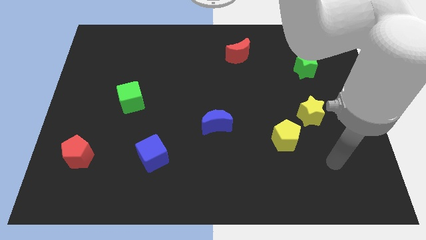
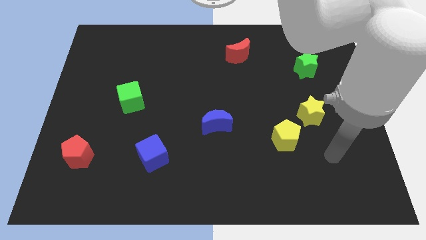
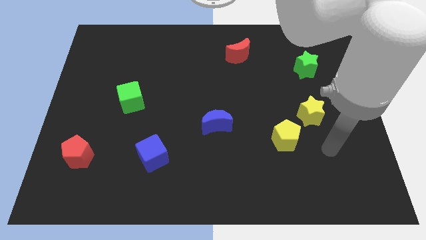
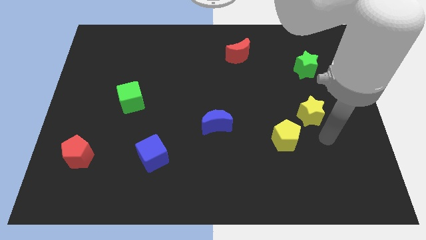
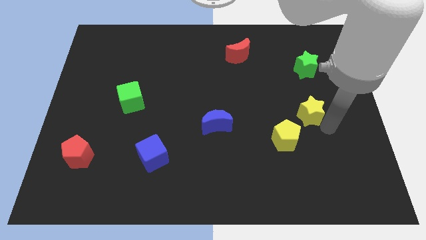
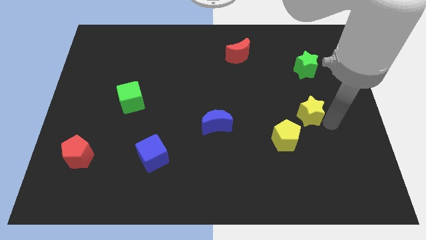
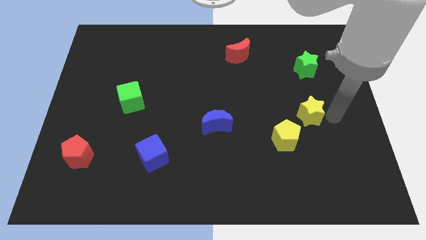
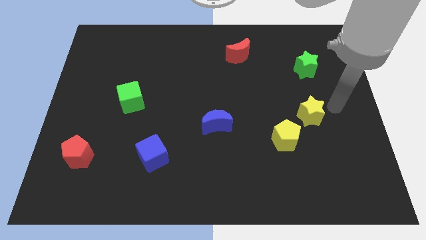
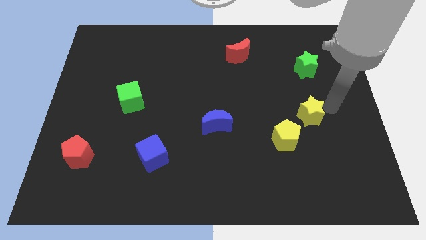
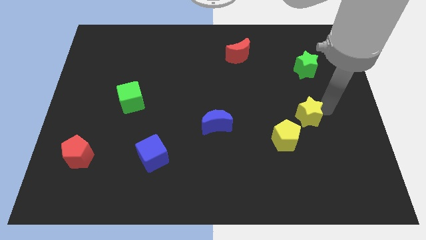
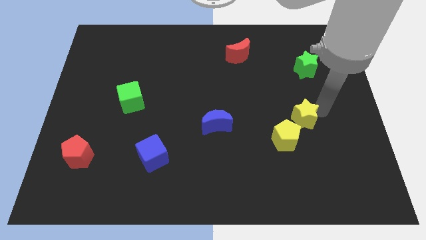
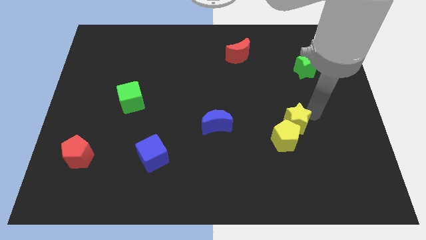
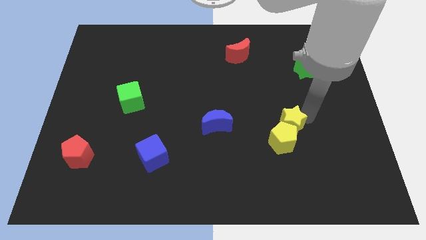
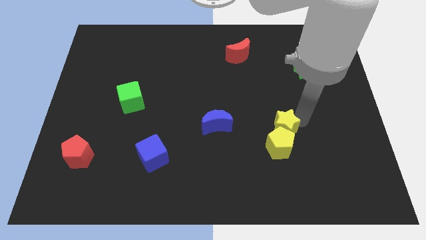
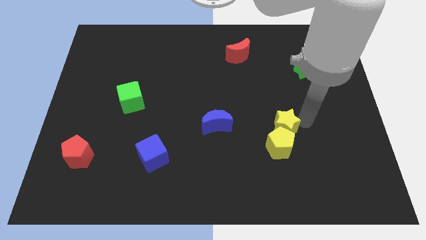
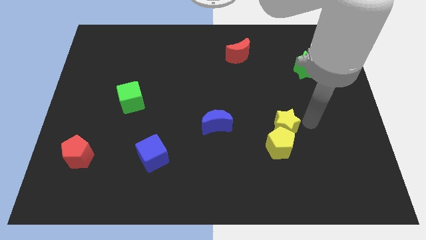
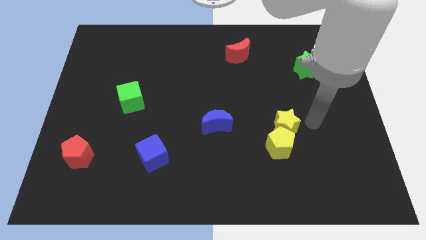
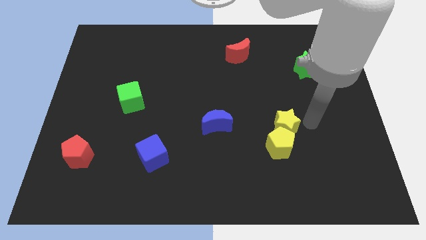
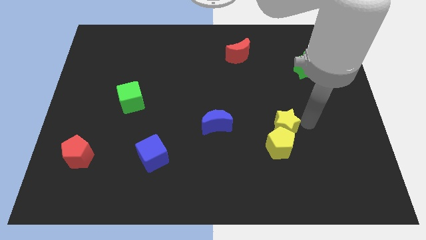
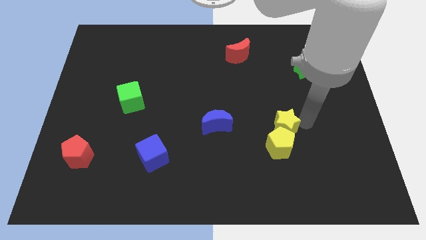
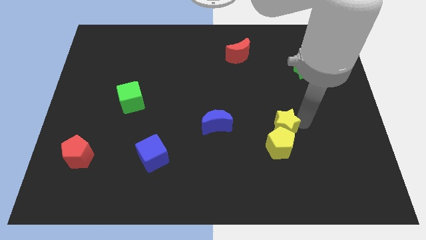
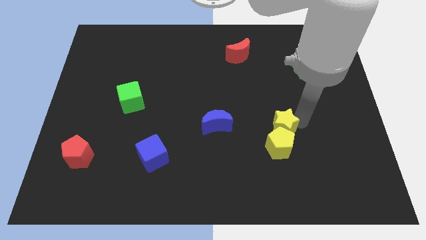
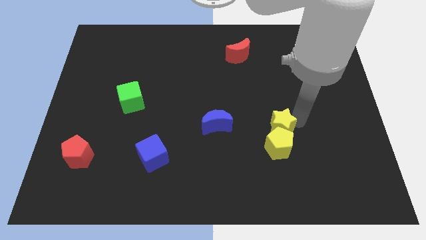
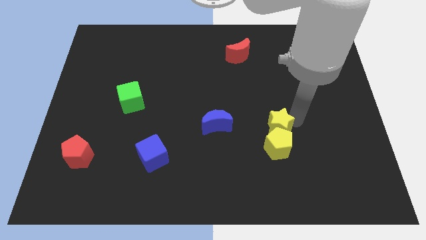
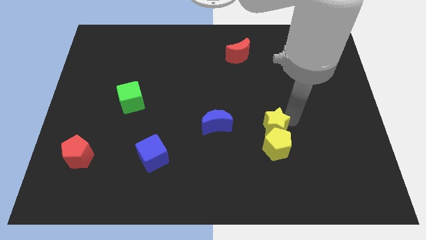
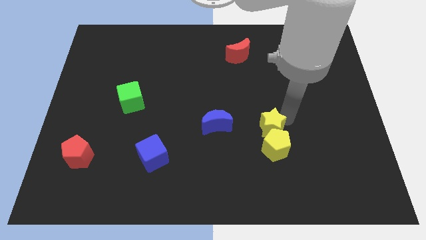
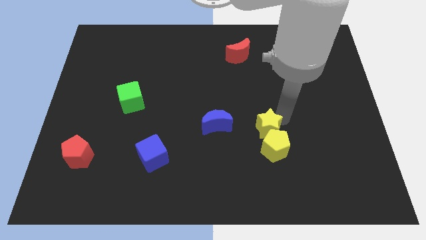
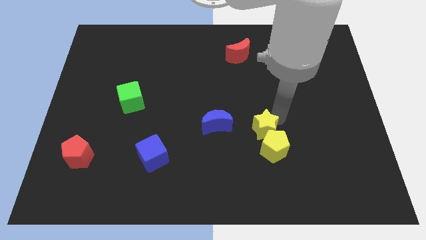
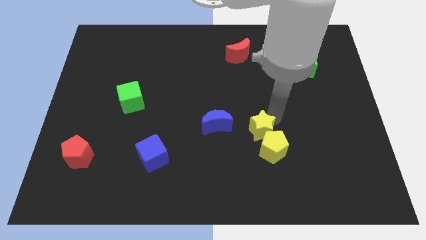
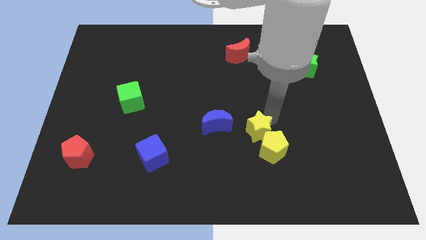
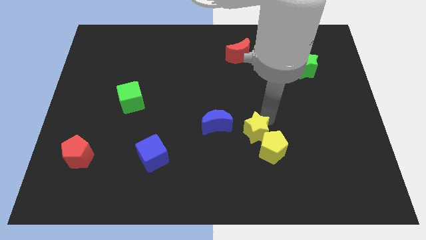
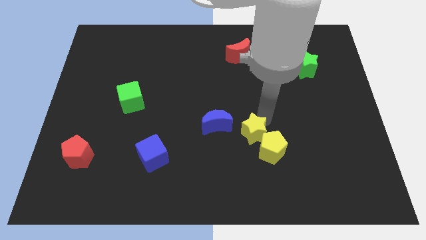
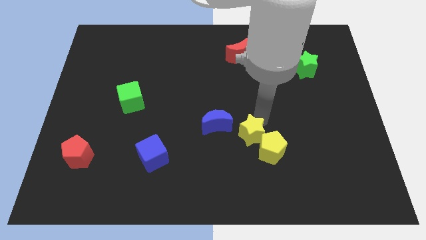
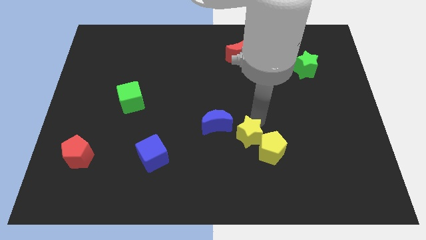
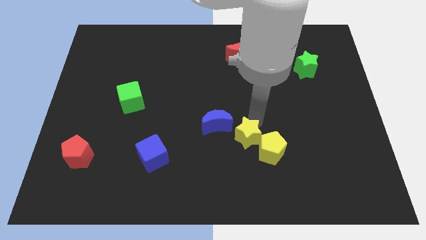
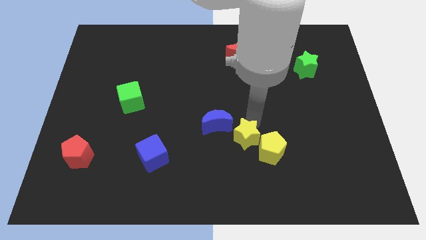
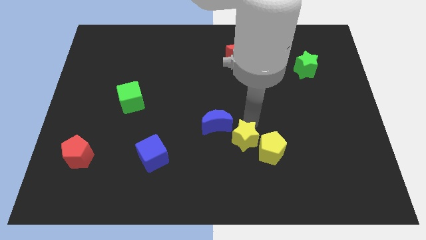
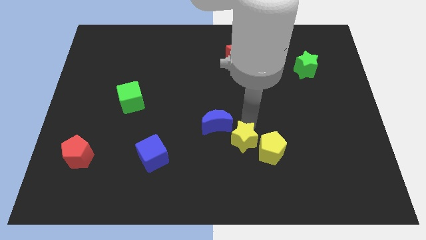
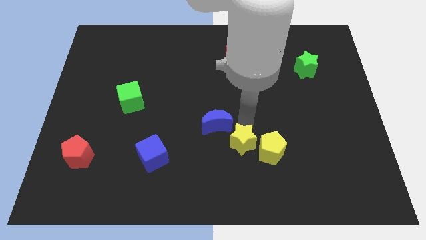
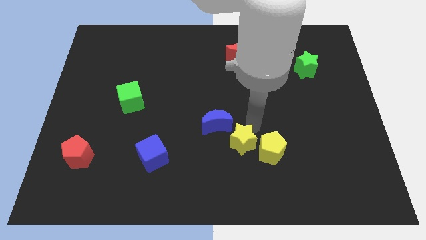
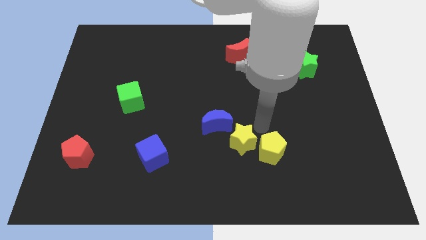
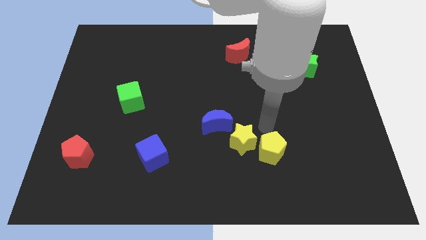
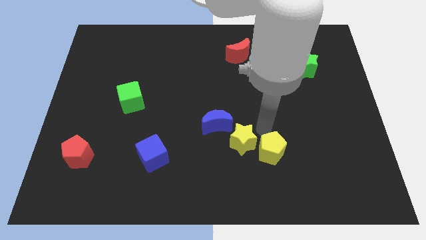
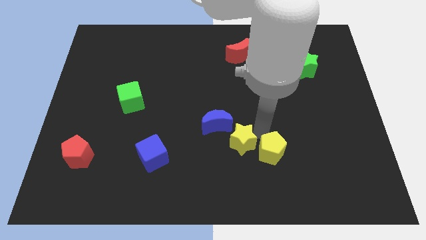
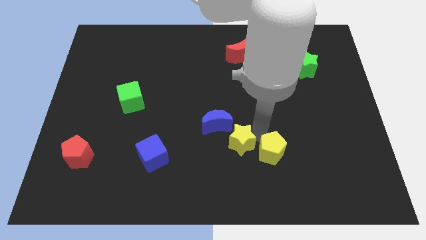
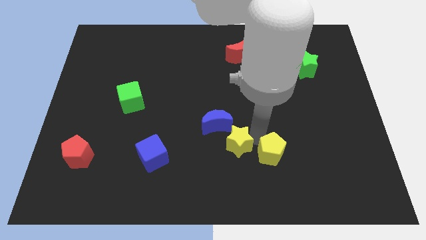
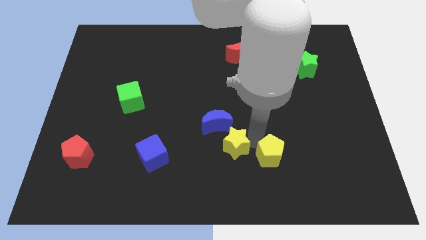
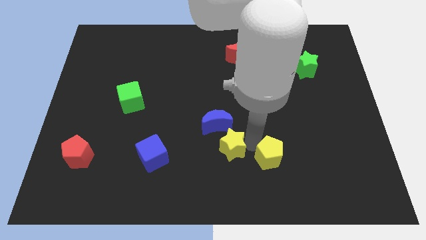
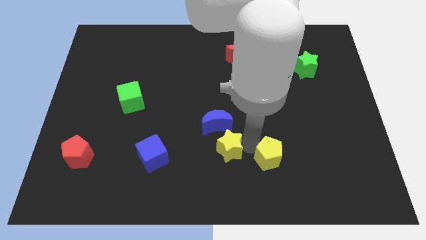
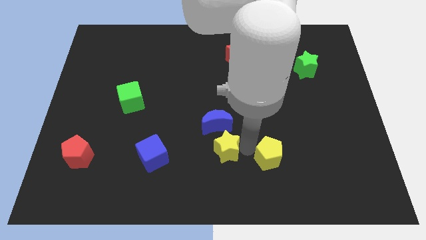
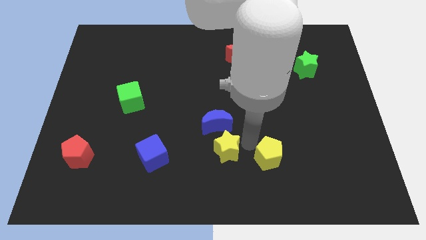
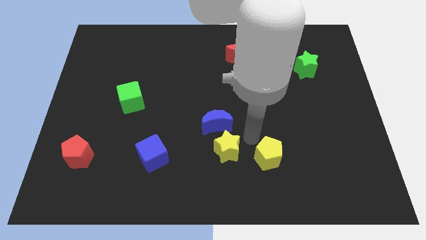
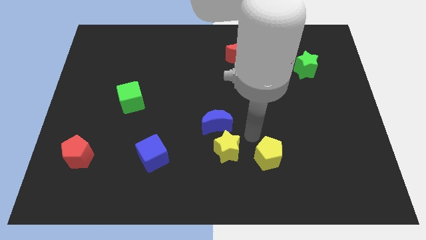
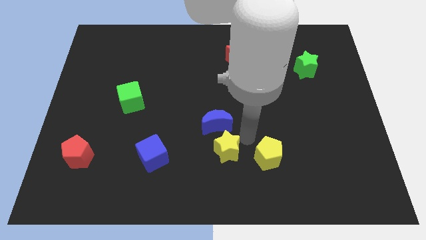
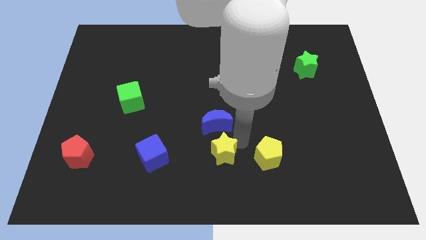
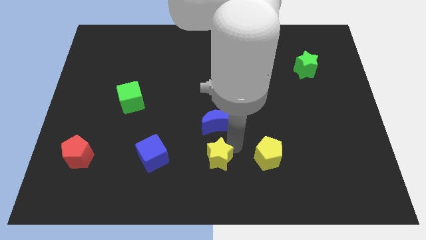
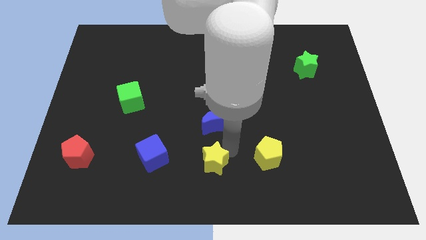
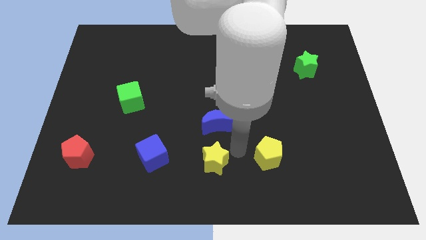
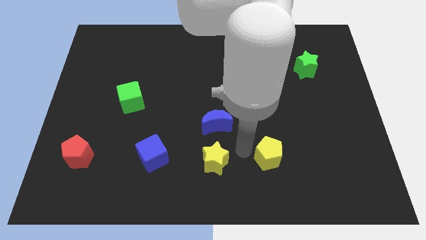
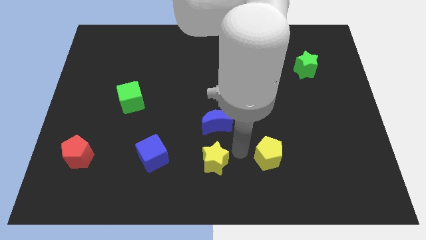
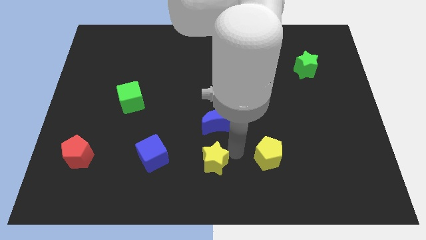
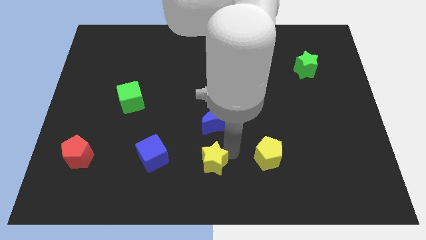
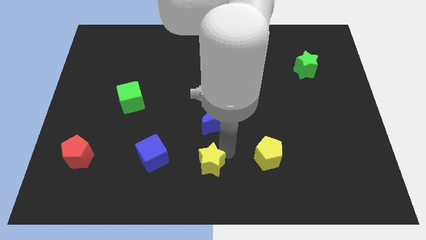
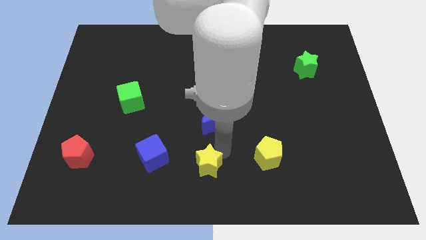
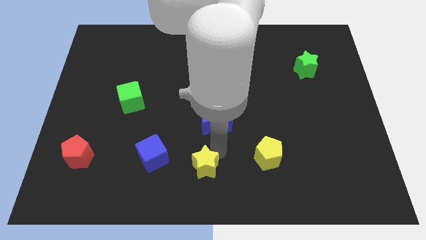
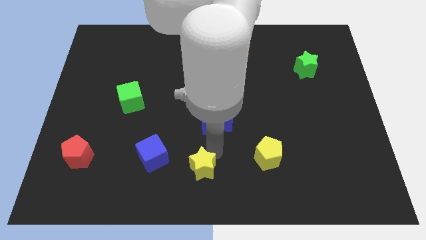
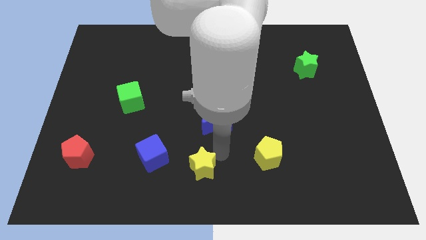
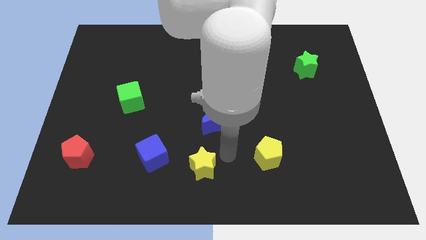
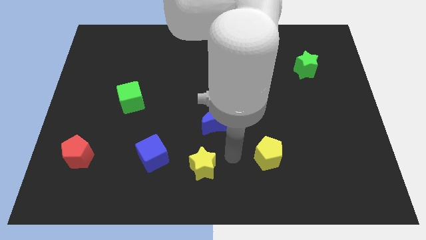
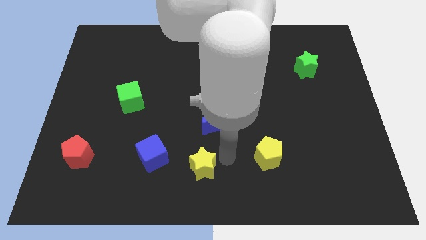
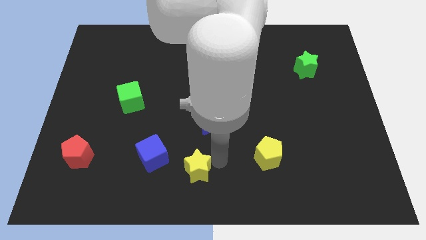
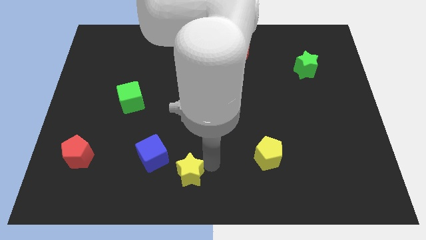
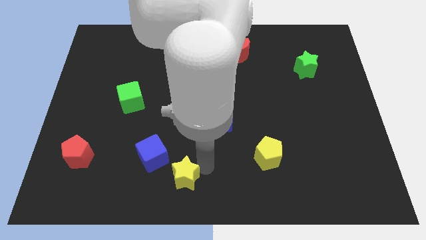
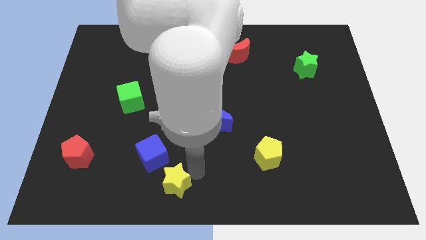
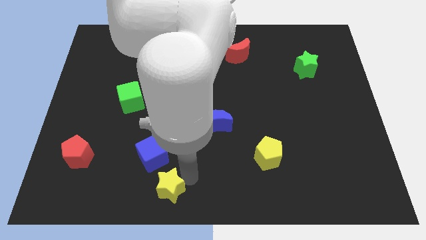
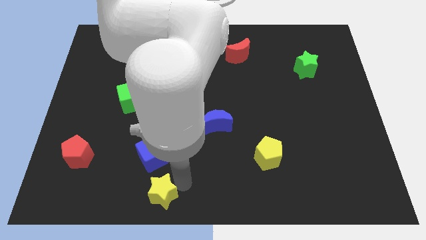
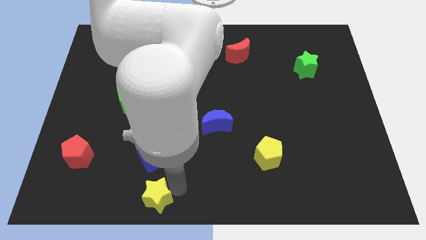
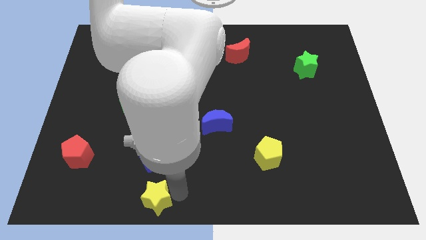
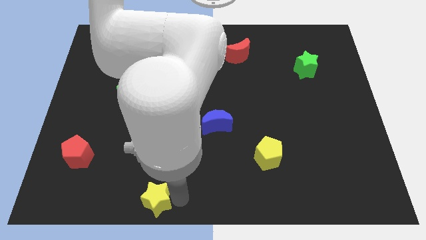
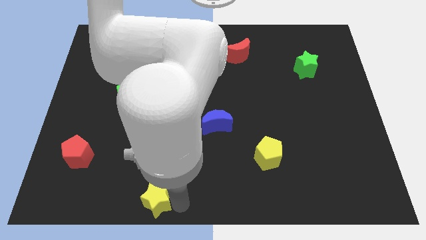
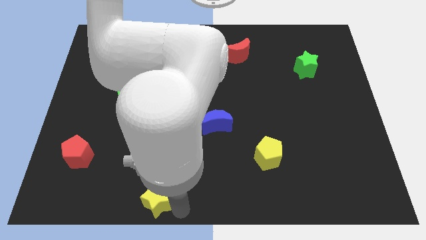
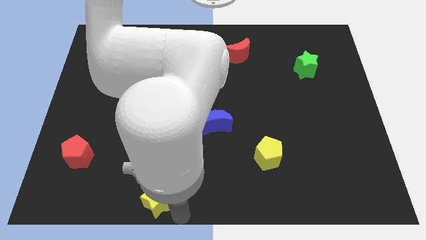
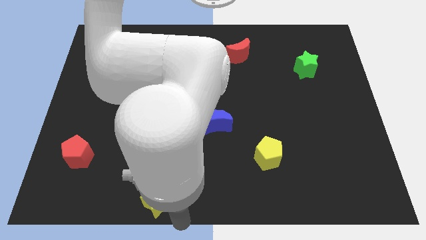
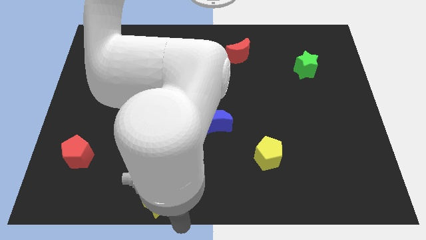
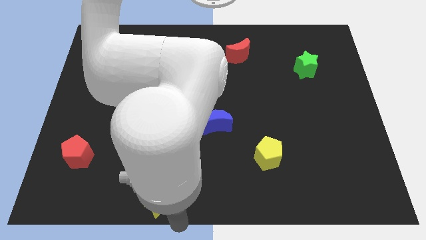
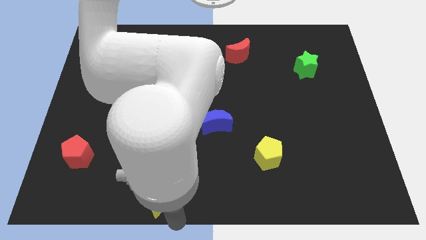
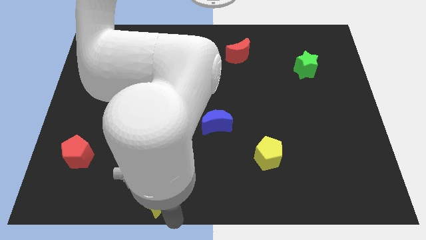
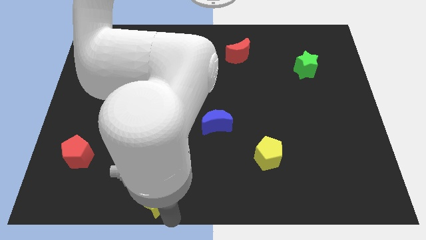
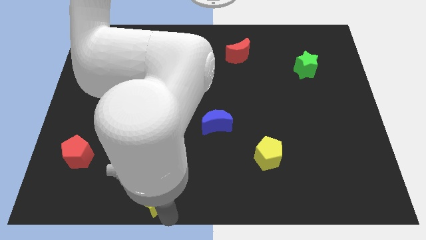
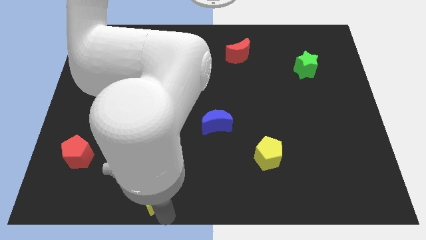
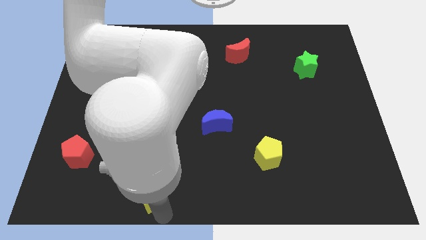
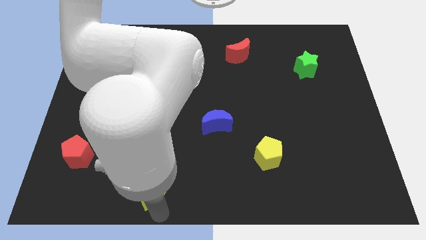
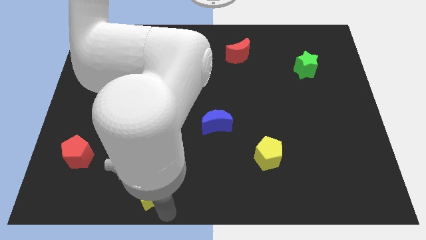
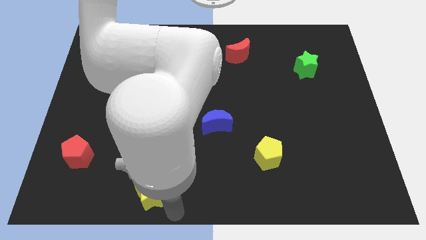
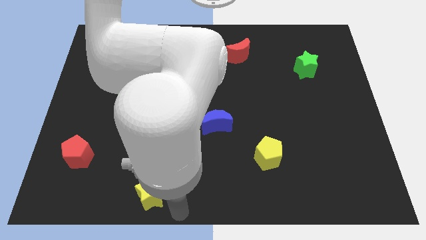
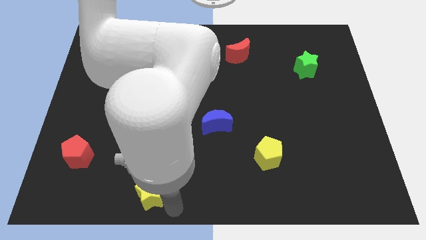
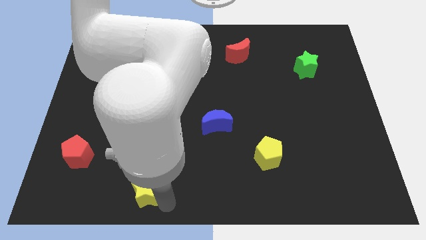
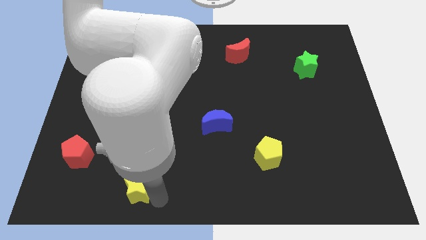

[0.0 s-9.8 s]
move the yellow star to the bottom left side of the blue cube
